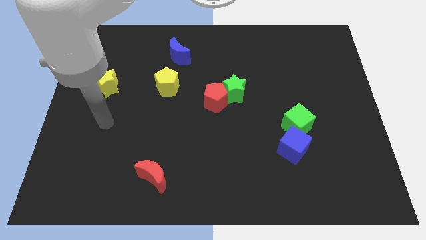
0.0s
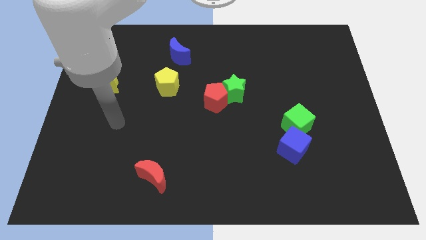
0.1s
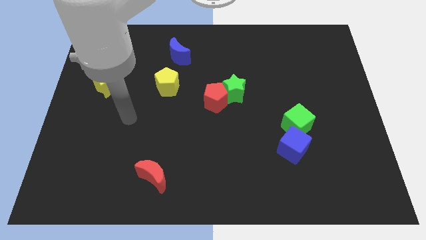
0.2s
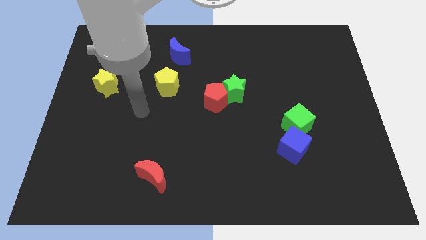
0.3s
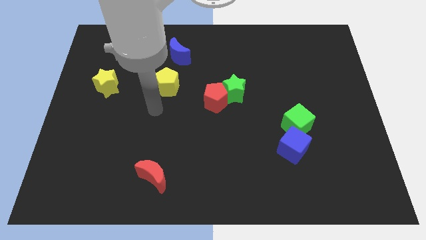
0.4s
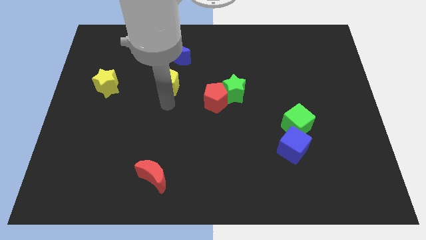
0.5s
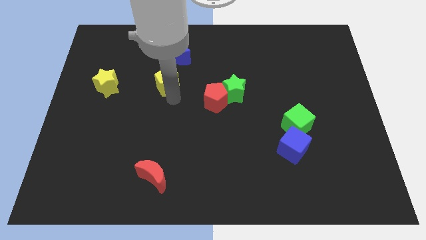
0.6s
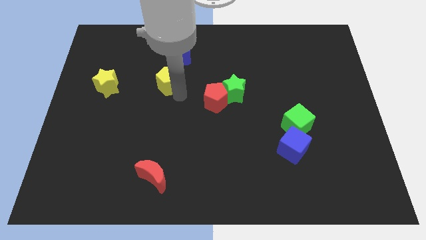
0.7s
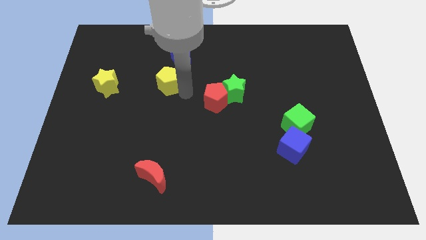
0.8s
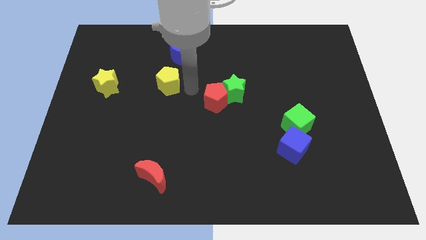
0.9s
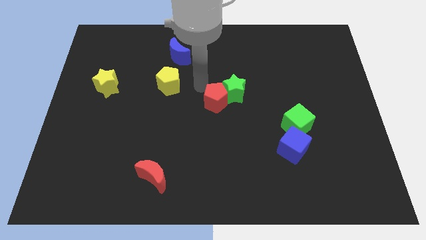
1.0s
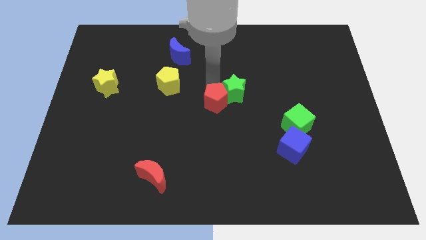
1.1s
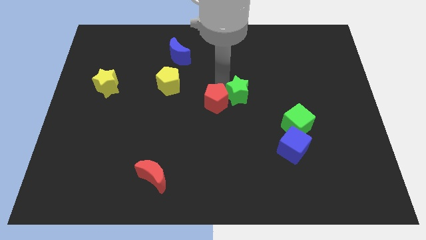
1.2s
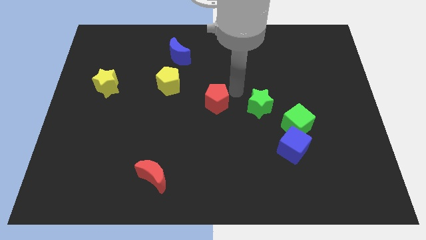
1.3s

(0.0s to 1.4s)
pull the red pentagon apart from the green star

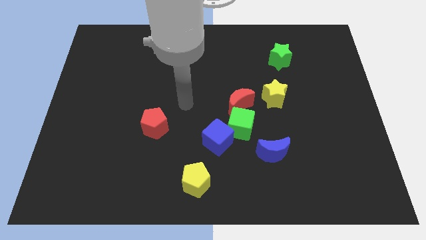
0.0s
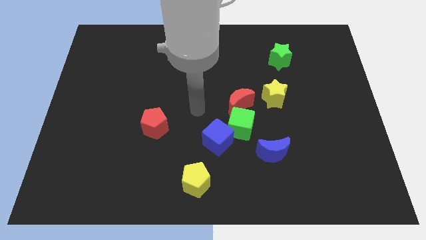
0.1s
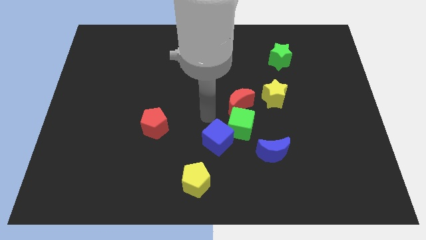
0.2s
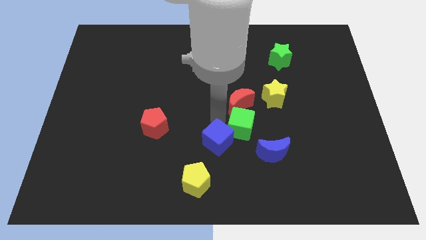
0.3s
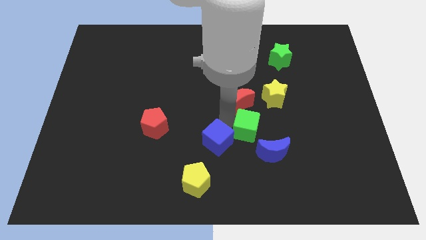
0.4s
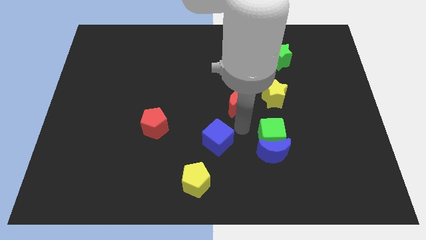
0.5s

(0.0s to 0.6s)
move the blue cube away from the green cube

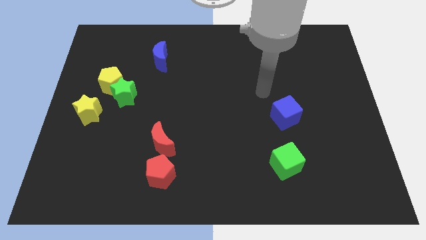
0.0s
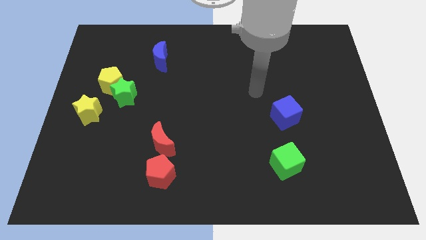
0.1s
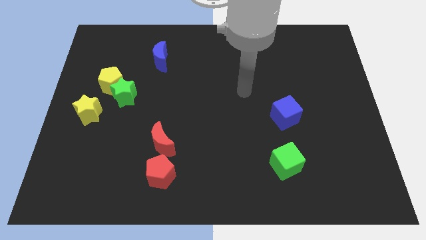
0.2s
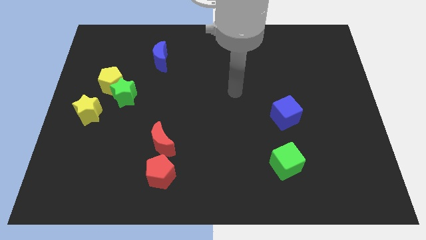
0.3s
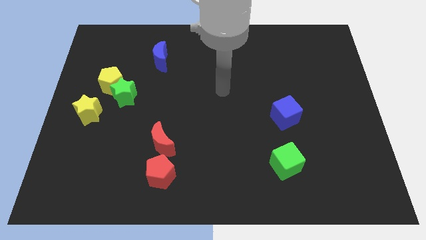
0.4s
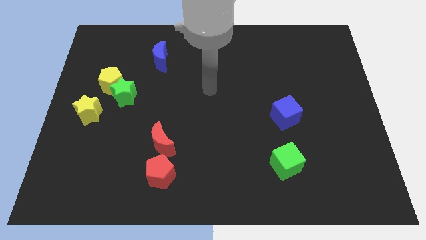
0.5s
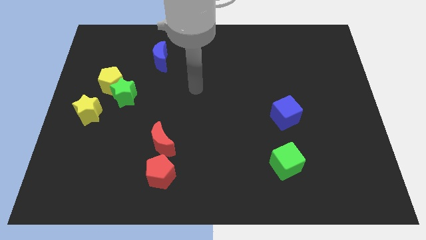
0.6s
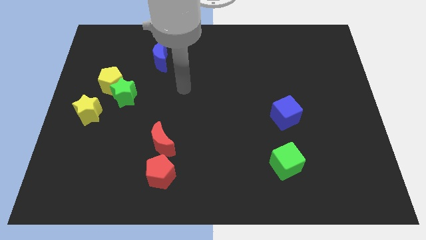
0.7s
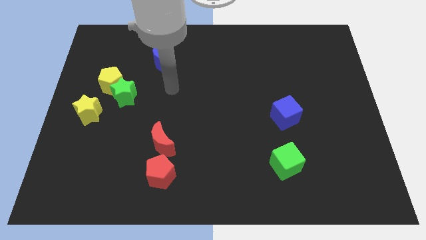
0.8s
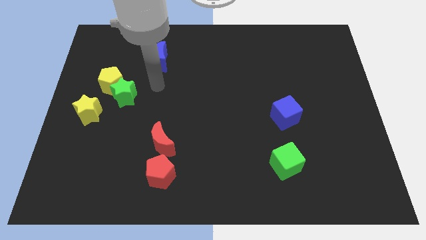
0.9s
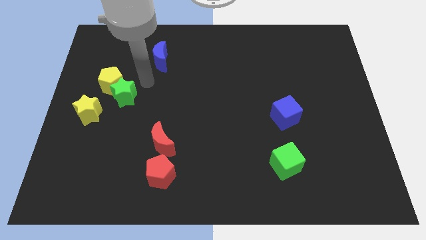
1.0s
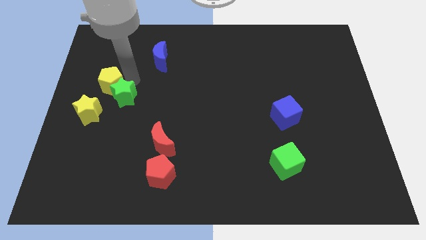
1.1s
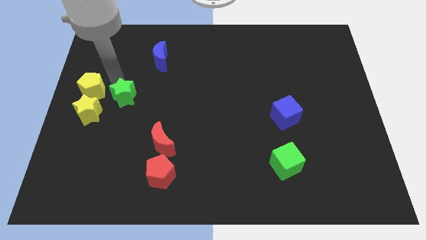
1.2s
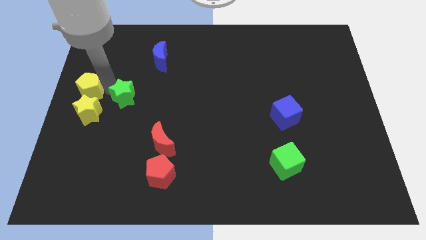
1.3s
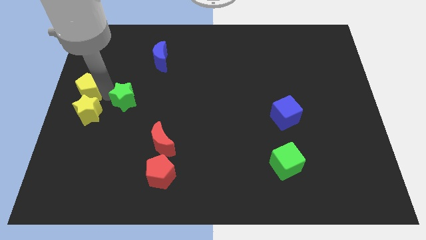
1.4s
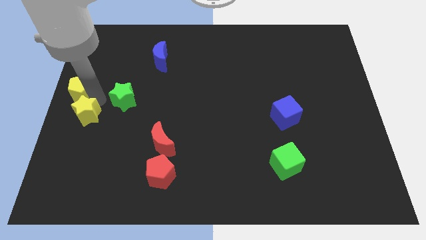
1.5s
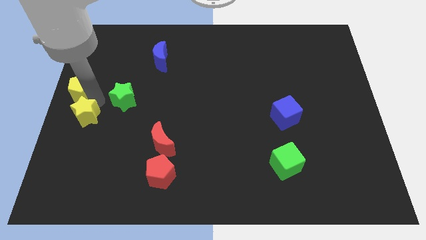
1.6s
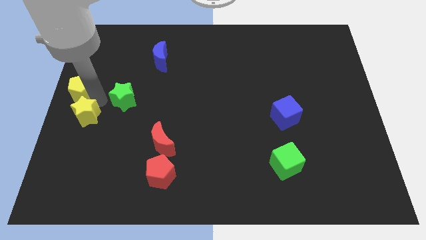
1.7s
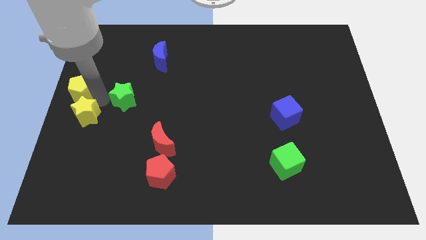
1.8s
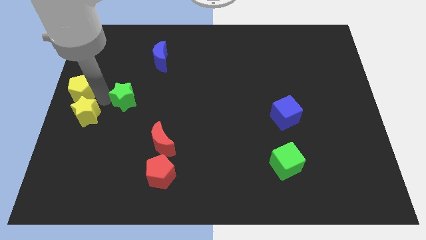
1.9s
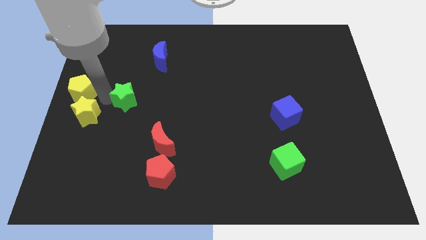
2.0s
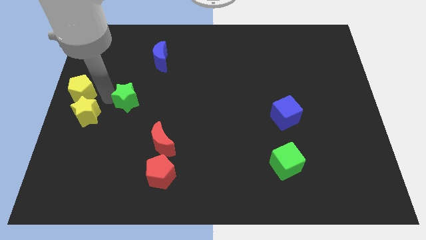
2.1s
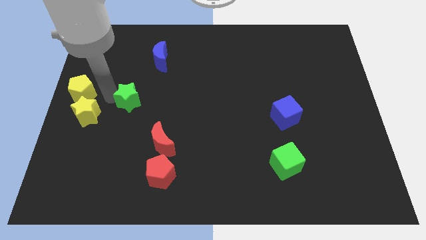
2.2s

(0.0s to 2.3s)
separate the green star from the yellow pentagon and yellow star

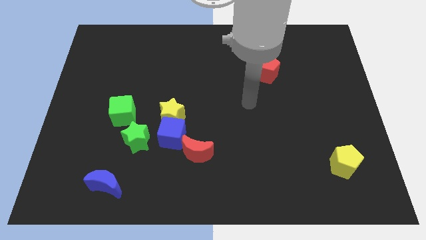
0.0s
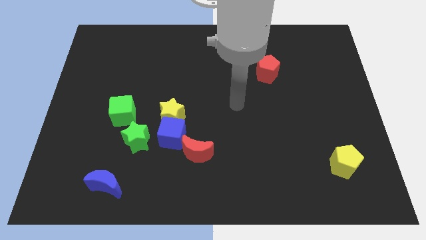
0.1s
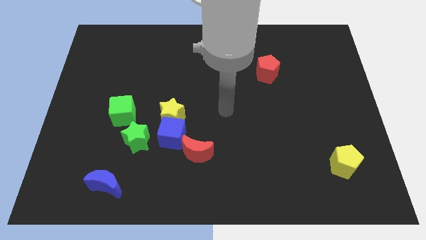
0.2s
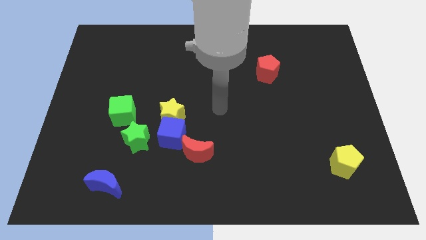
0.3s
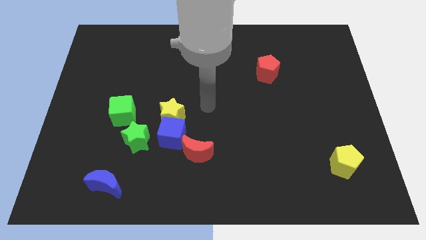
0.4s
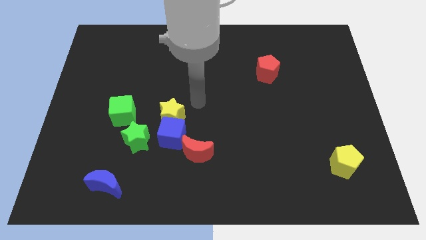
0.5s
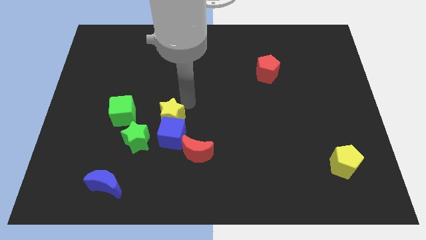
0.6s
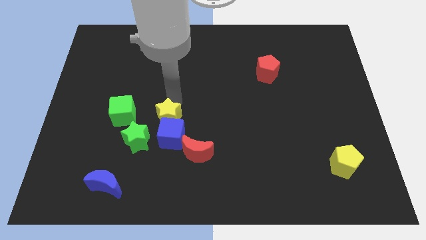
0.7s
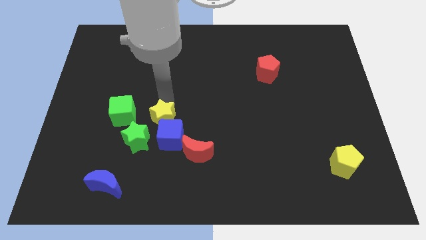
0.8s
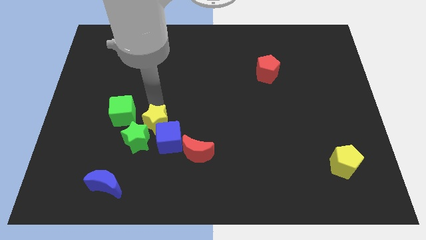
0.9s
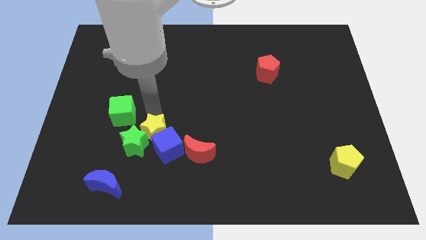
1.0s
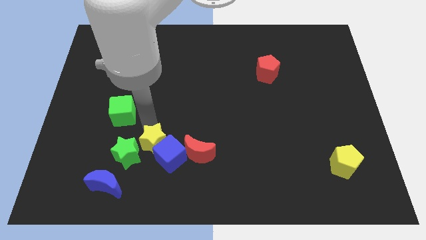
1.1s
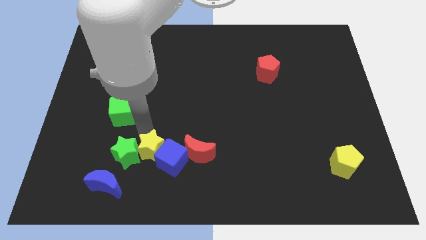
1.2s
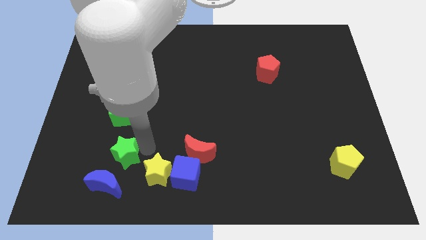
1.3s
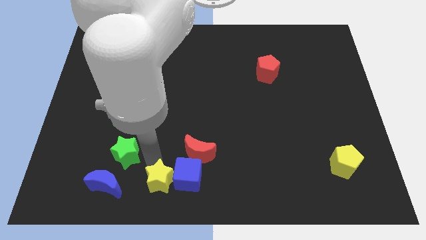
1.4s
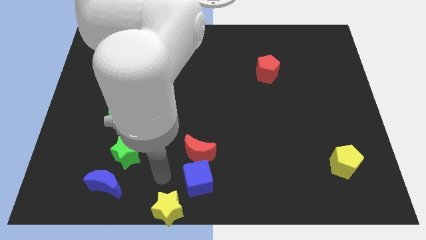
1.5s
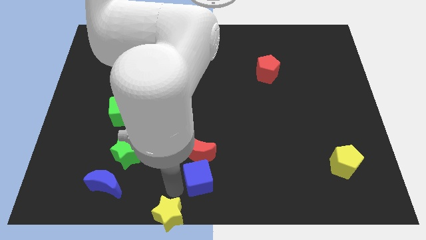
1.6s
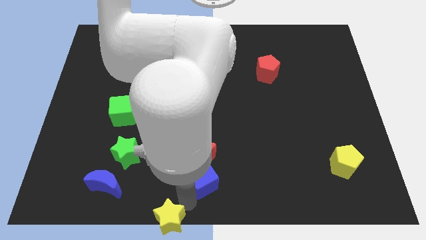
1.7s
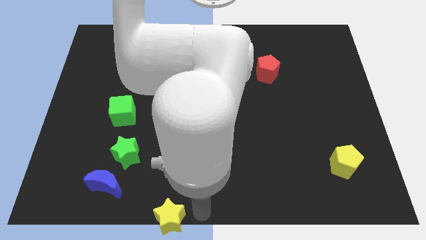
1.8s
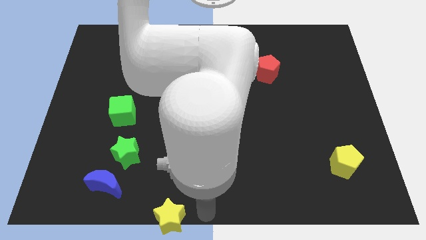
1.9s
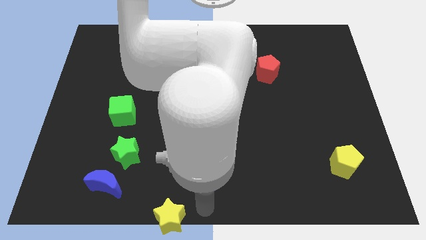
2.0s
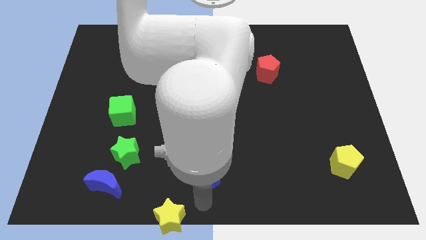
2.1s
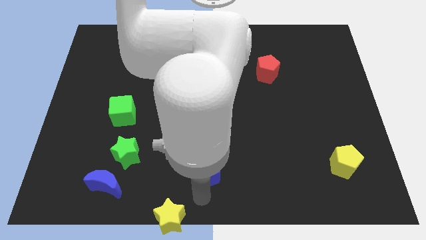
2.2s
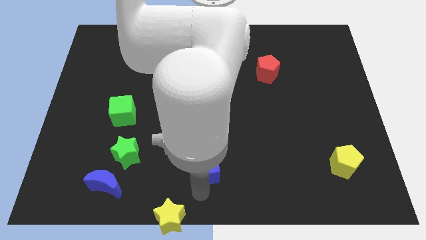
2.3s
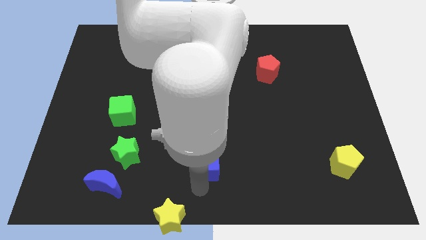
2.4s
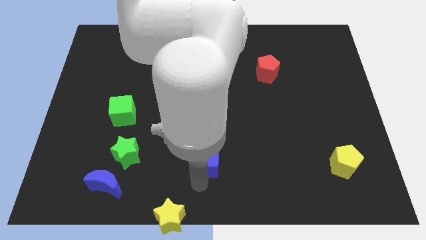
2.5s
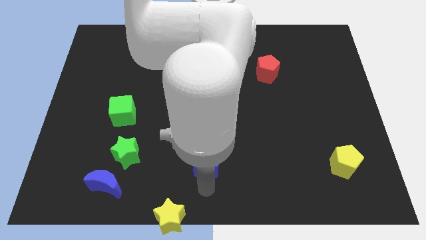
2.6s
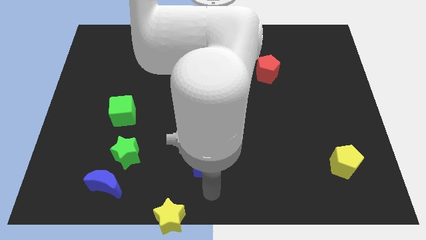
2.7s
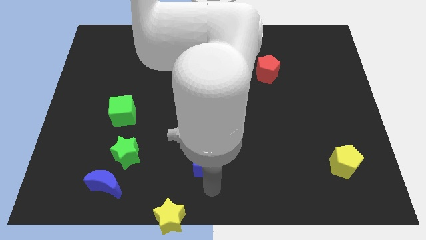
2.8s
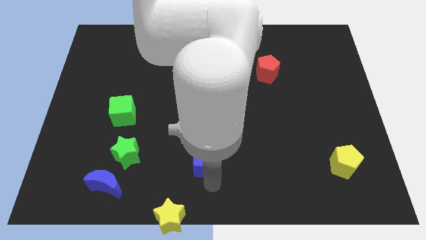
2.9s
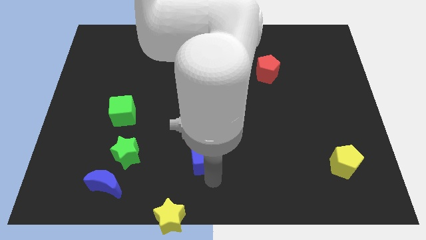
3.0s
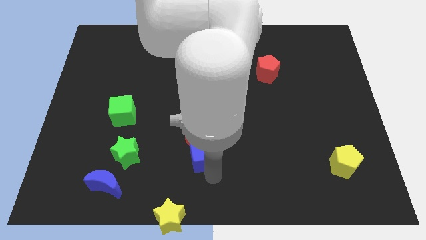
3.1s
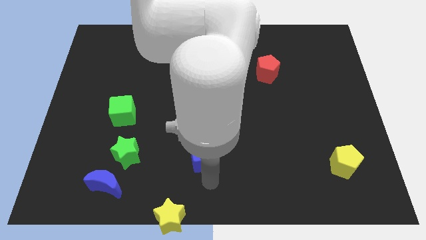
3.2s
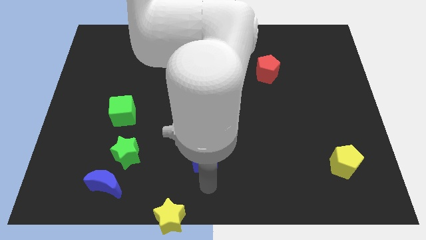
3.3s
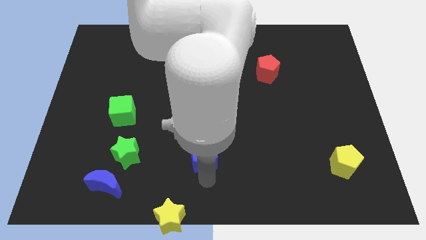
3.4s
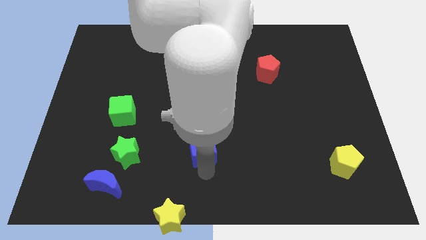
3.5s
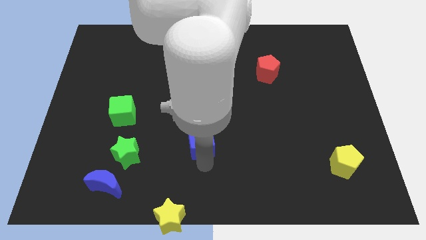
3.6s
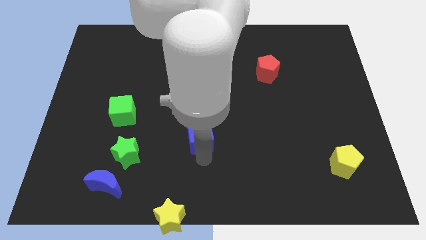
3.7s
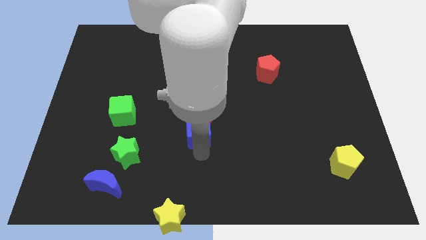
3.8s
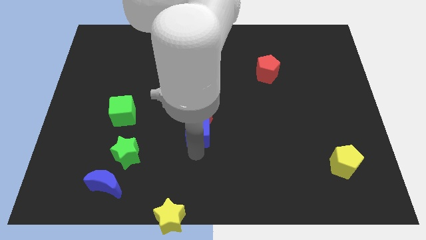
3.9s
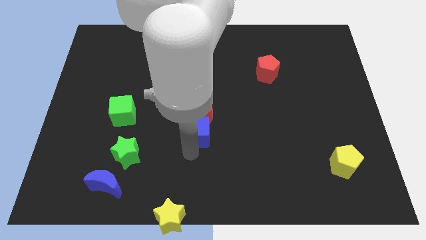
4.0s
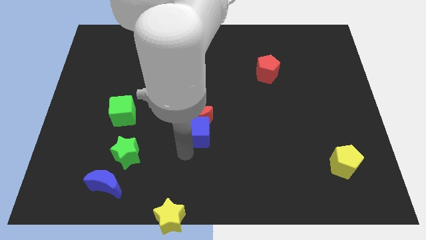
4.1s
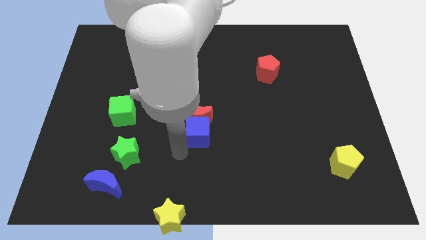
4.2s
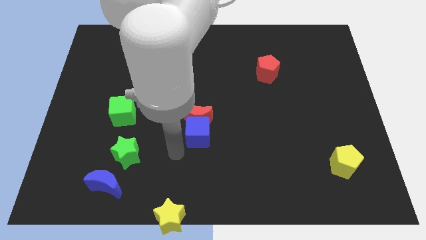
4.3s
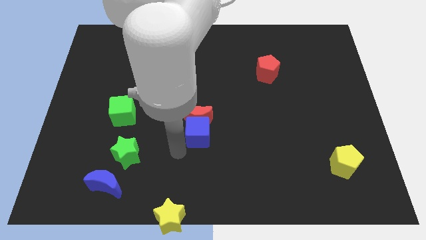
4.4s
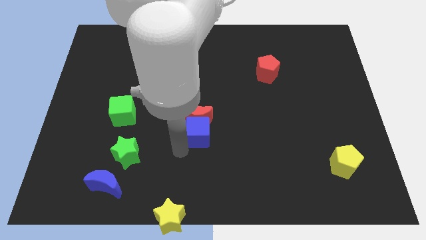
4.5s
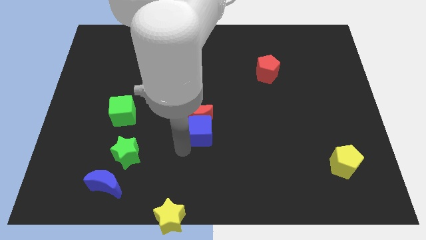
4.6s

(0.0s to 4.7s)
move the blue cube away from the yellow star, red moon, and green star

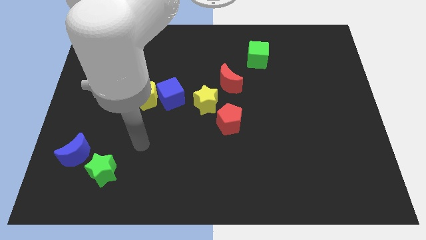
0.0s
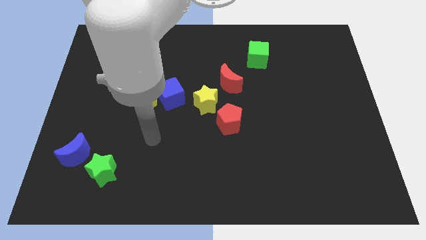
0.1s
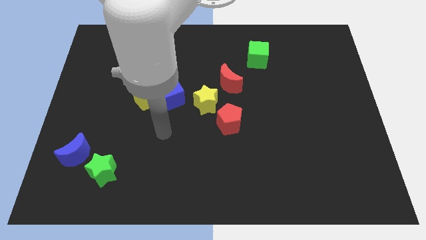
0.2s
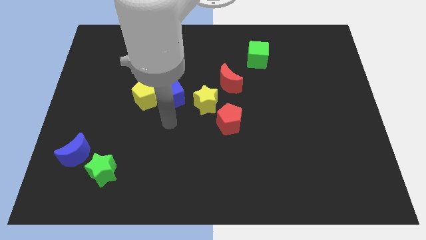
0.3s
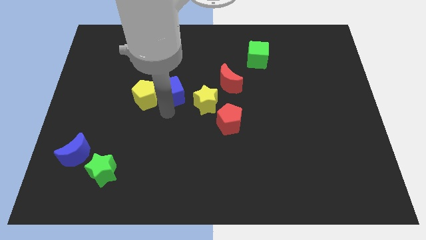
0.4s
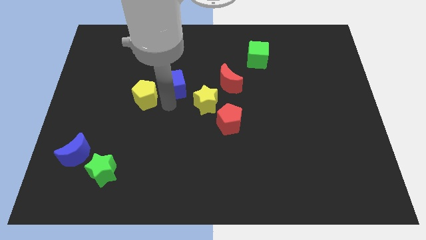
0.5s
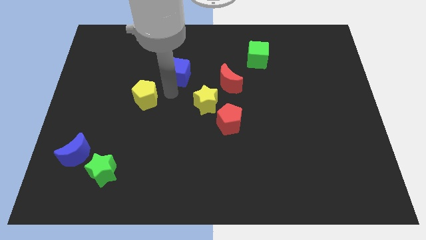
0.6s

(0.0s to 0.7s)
move the yellow pentagon away from the blue cube
